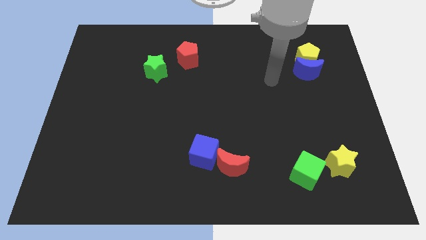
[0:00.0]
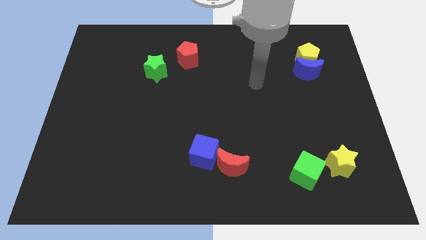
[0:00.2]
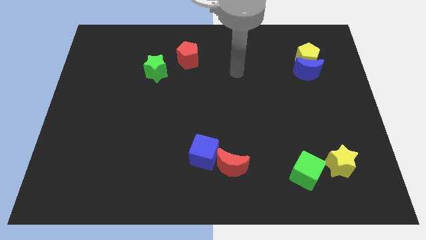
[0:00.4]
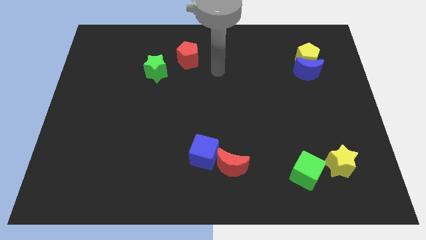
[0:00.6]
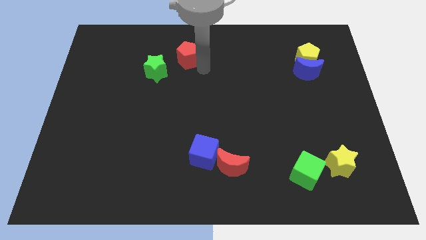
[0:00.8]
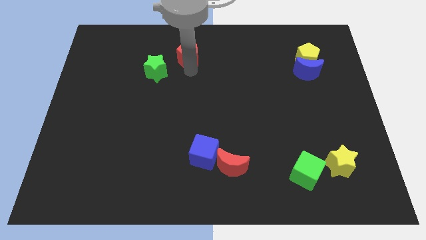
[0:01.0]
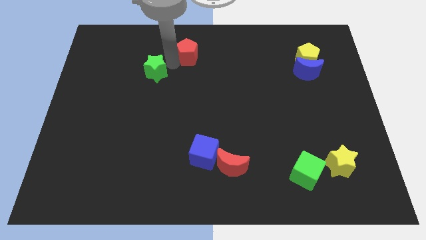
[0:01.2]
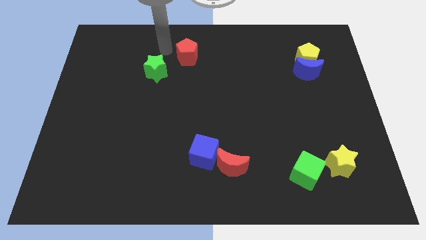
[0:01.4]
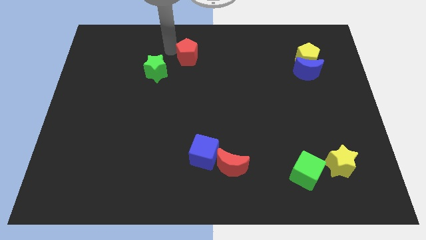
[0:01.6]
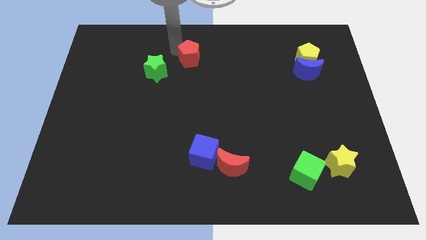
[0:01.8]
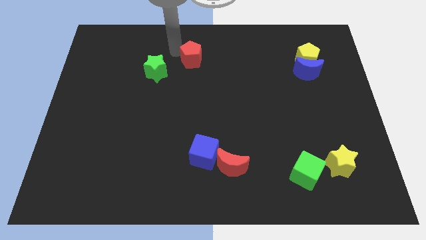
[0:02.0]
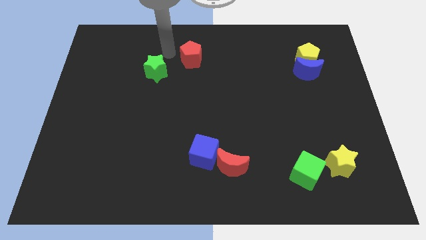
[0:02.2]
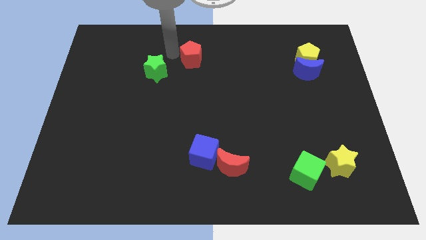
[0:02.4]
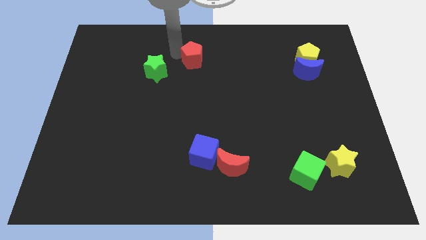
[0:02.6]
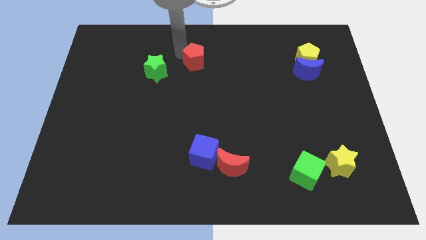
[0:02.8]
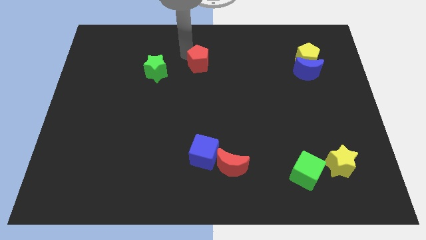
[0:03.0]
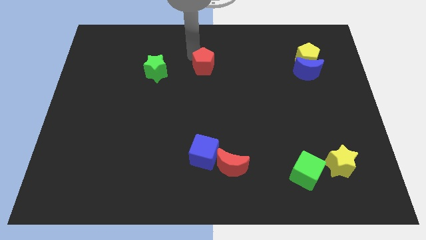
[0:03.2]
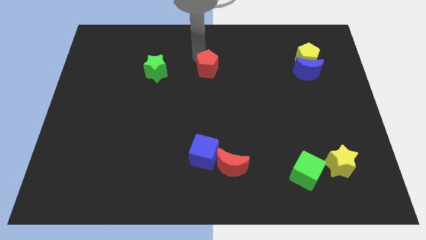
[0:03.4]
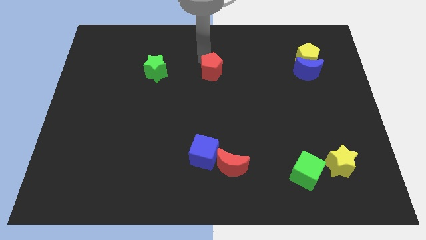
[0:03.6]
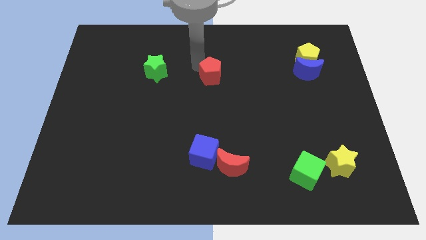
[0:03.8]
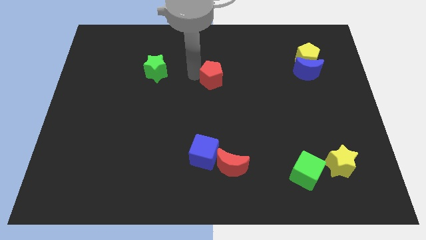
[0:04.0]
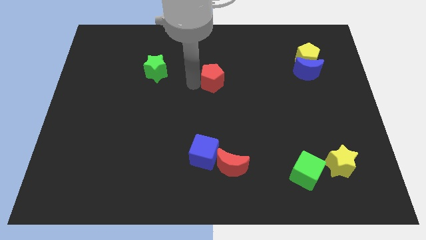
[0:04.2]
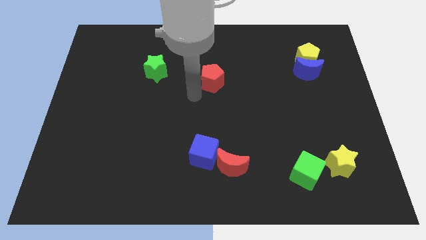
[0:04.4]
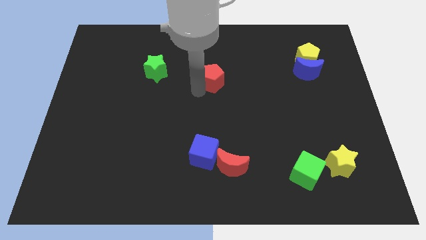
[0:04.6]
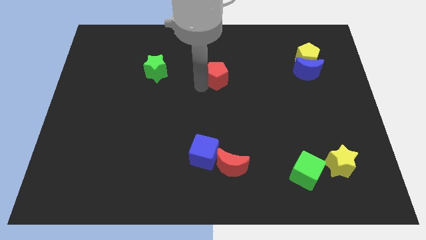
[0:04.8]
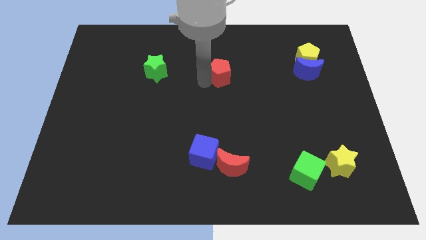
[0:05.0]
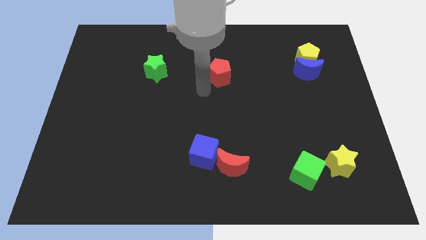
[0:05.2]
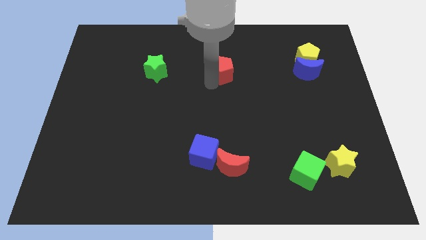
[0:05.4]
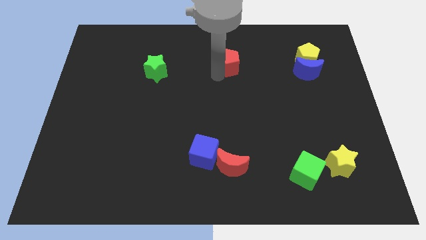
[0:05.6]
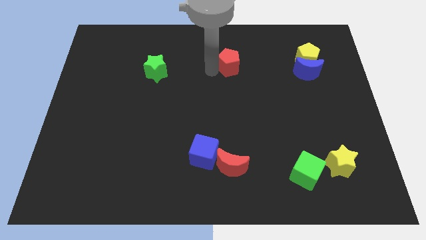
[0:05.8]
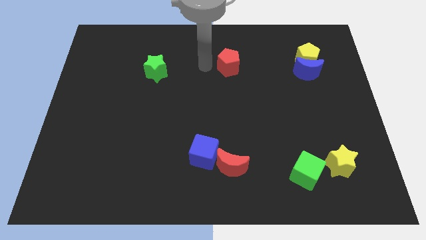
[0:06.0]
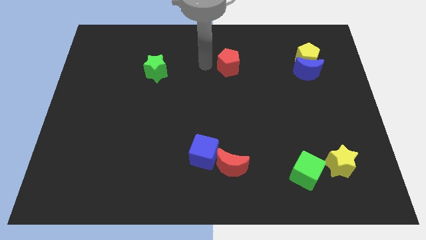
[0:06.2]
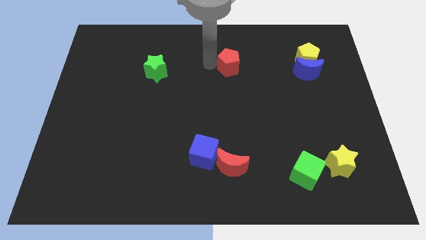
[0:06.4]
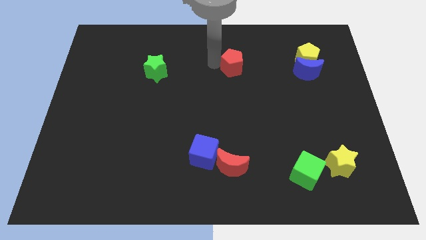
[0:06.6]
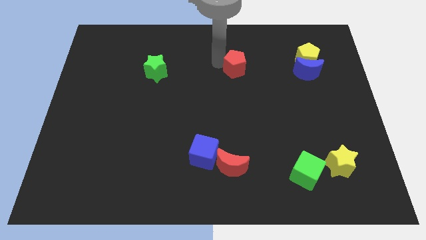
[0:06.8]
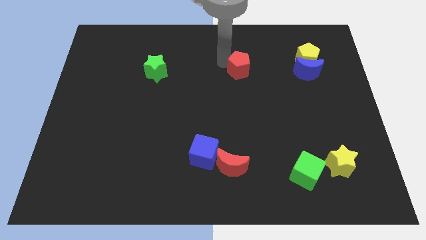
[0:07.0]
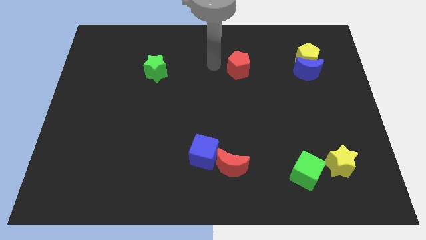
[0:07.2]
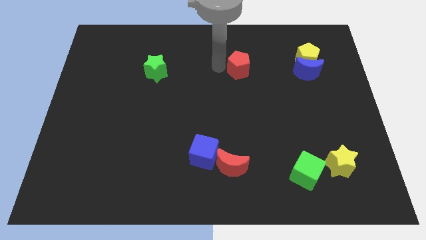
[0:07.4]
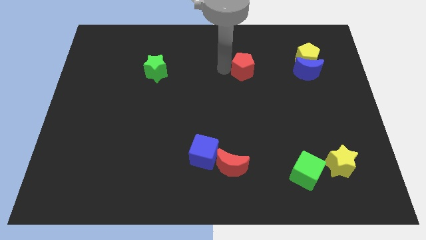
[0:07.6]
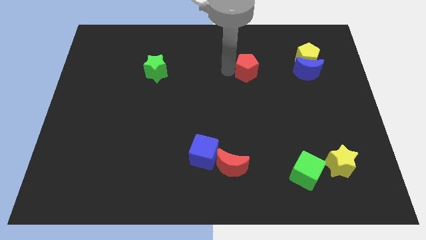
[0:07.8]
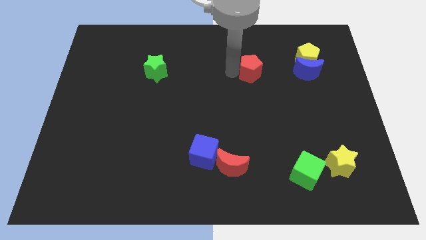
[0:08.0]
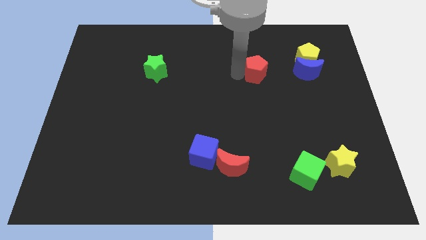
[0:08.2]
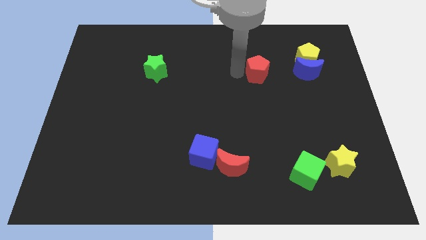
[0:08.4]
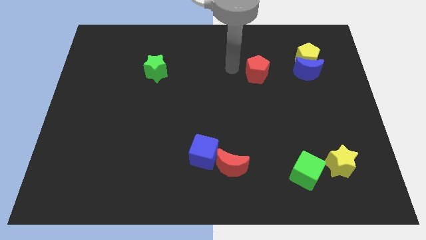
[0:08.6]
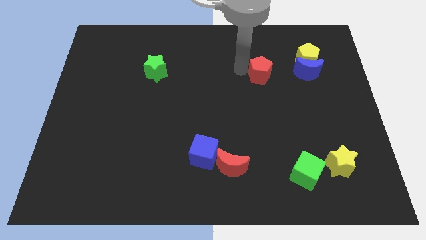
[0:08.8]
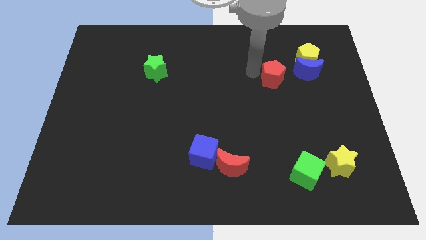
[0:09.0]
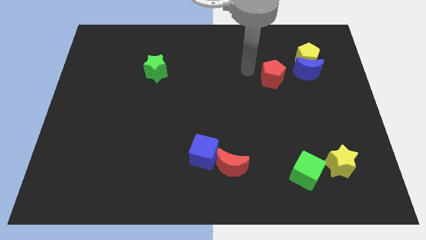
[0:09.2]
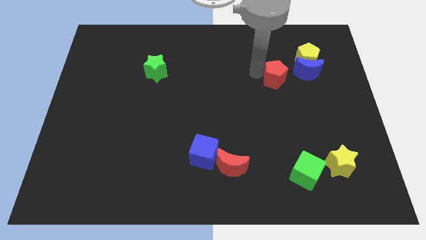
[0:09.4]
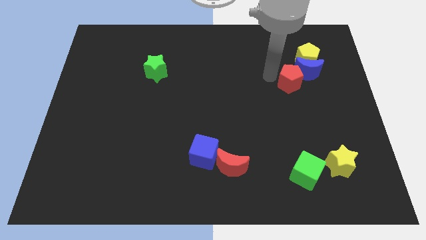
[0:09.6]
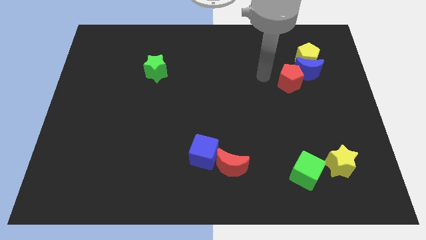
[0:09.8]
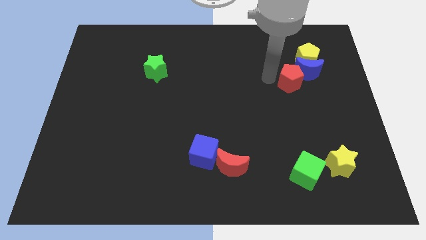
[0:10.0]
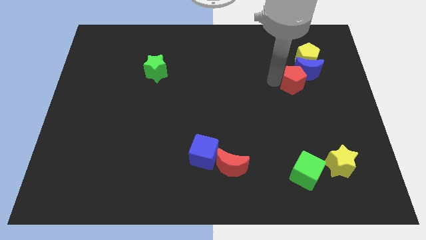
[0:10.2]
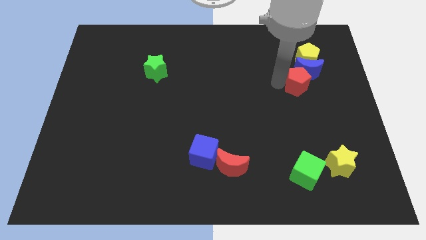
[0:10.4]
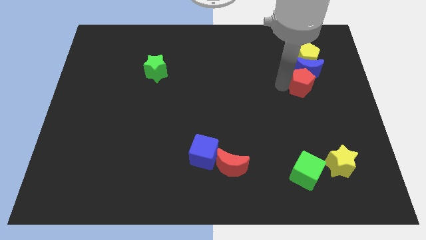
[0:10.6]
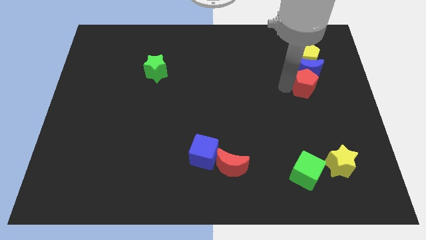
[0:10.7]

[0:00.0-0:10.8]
move the red pentagon to the bottom right of the blue moon

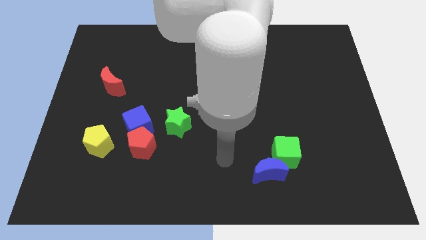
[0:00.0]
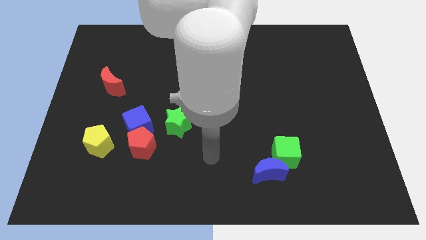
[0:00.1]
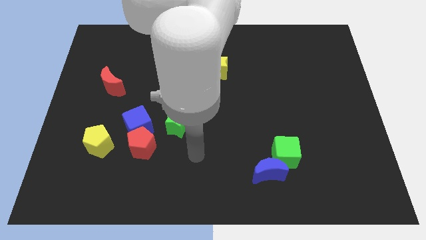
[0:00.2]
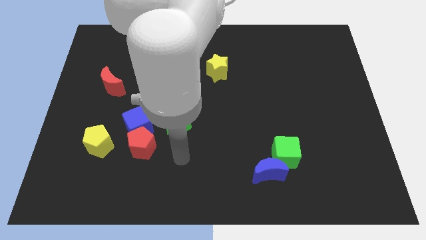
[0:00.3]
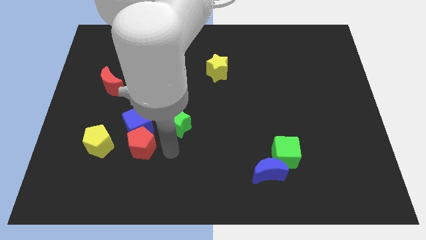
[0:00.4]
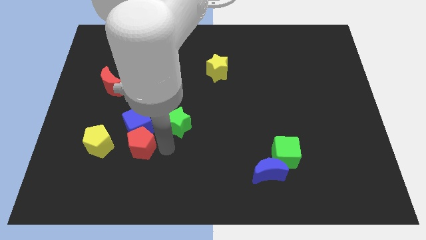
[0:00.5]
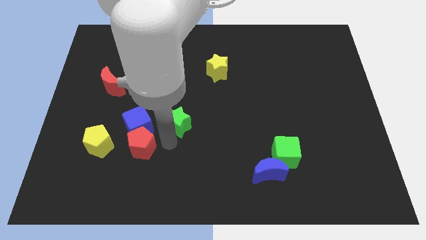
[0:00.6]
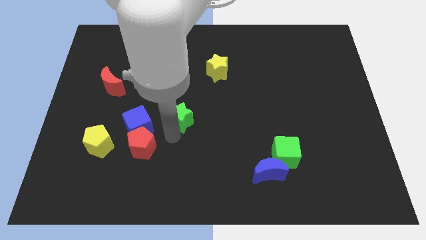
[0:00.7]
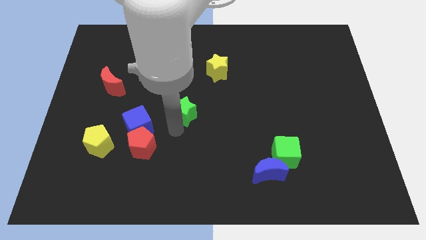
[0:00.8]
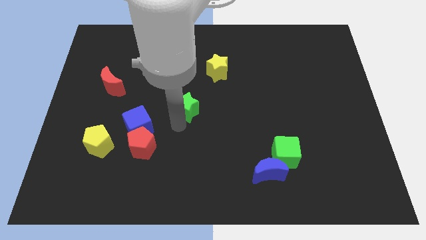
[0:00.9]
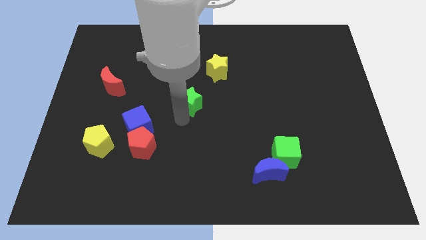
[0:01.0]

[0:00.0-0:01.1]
push the green star diagonally down and to the left of the yellow star

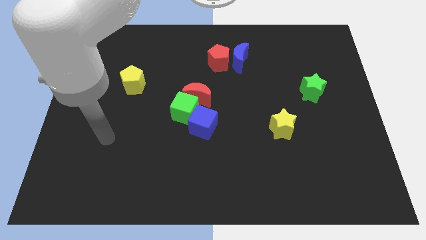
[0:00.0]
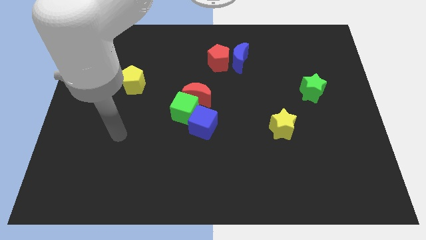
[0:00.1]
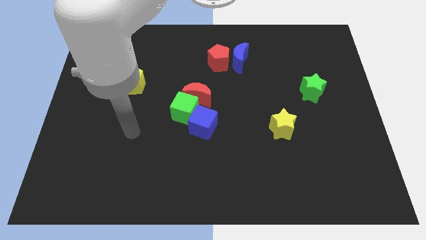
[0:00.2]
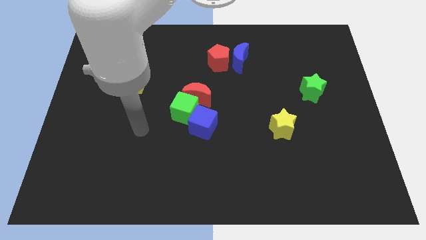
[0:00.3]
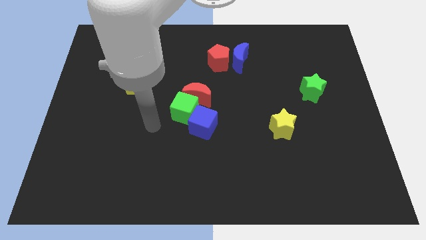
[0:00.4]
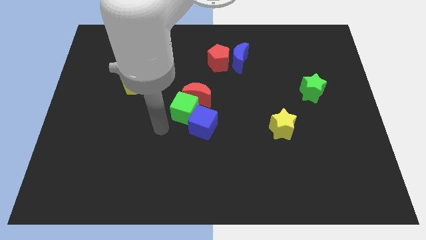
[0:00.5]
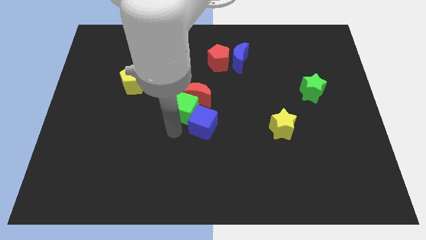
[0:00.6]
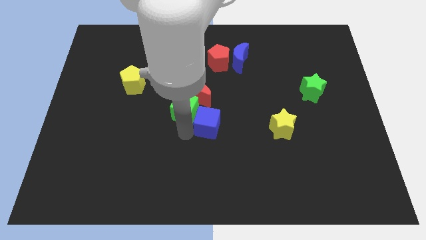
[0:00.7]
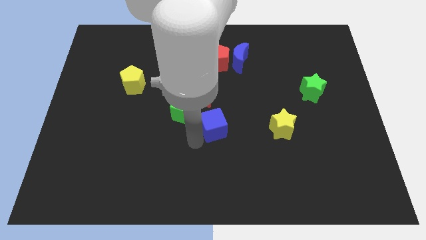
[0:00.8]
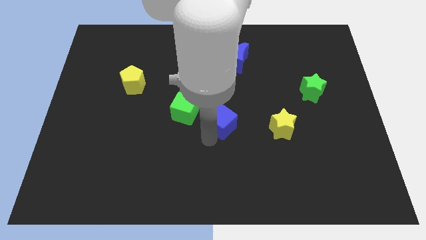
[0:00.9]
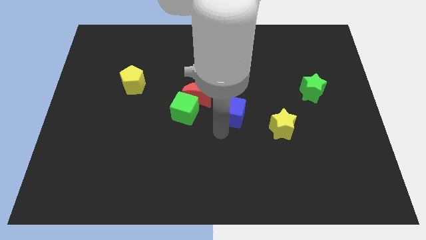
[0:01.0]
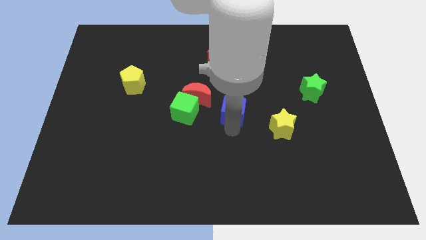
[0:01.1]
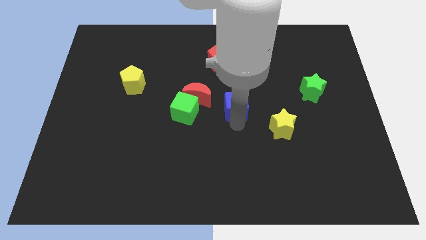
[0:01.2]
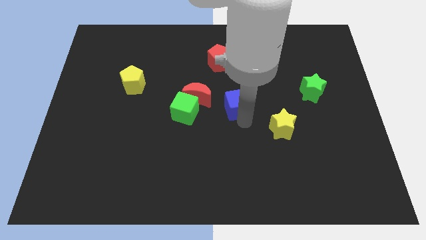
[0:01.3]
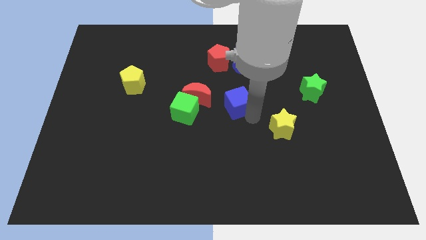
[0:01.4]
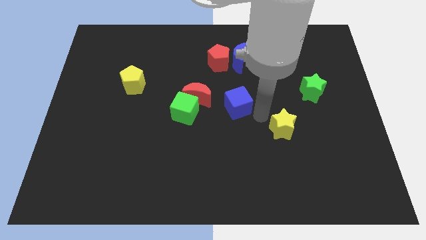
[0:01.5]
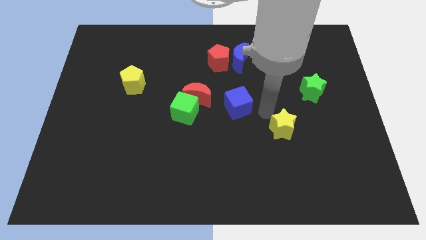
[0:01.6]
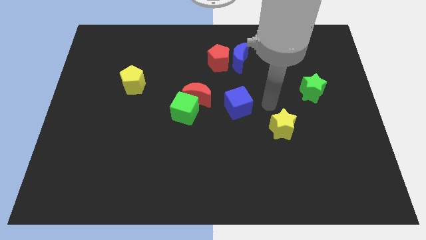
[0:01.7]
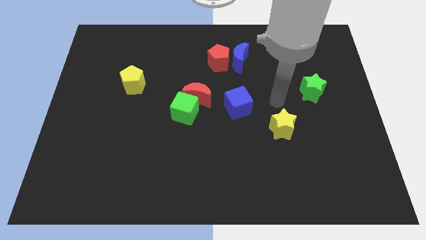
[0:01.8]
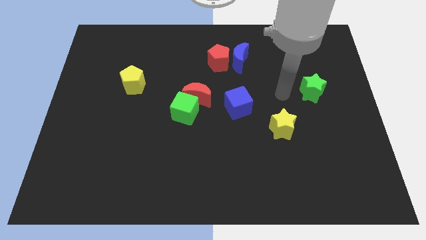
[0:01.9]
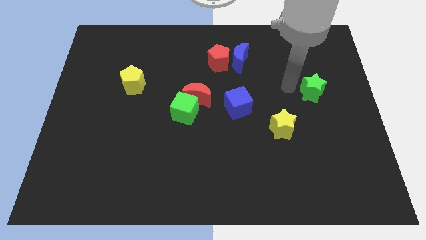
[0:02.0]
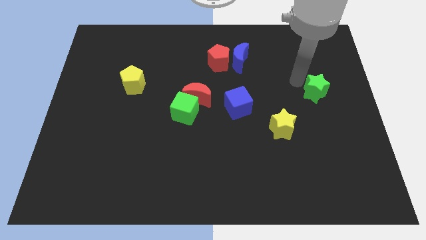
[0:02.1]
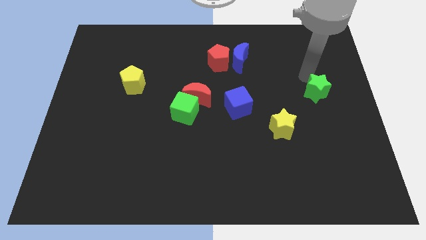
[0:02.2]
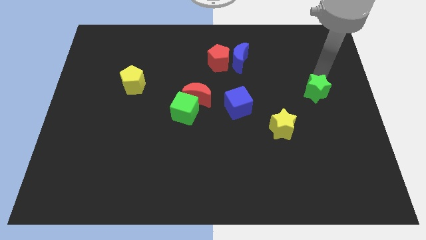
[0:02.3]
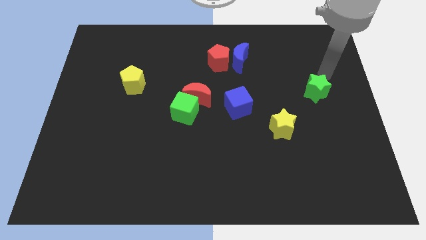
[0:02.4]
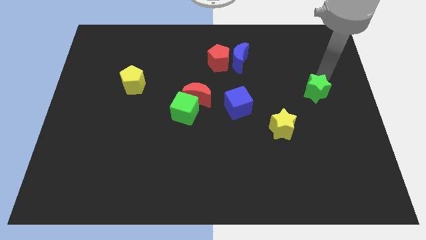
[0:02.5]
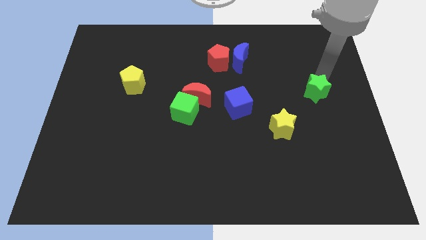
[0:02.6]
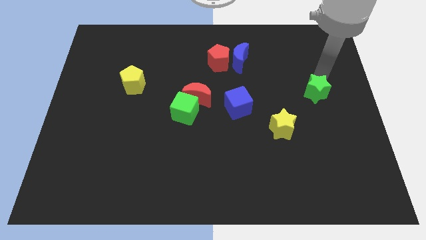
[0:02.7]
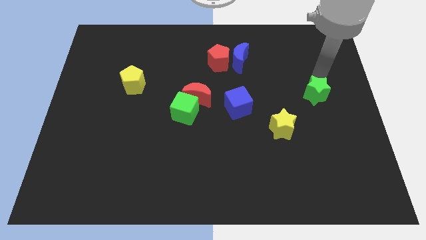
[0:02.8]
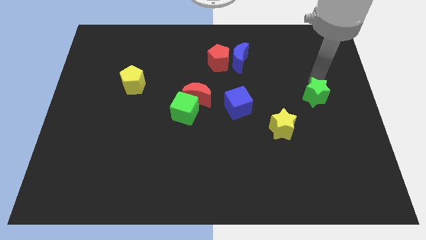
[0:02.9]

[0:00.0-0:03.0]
move the green star to the top right of the yellow star
